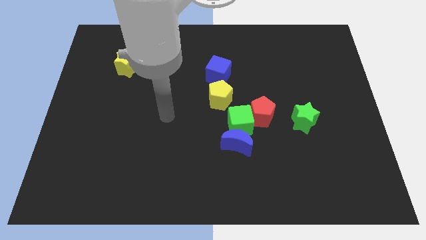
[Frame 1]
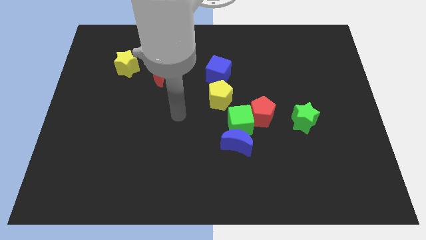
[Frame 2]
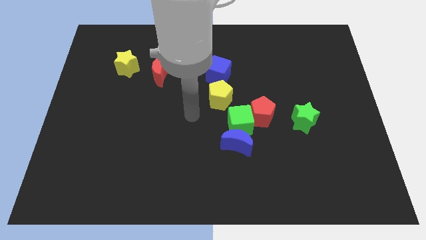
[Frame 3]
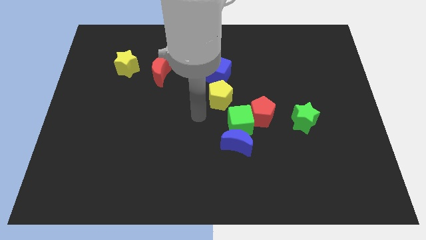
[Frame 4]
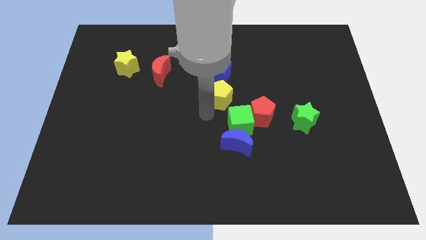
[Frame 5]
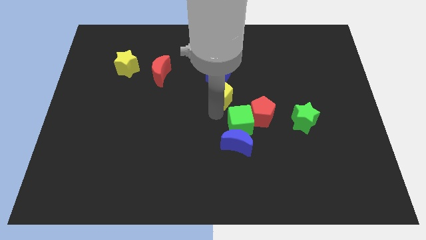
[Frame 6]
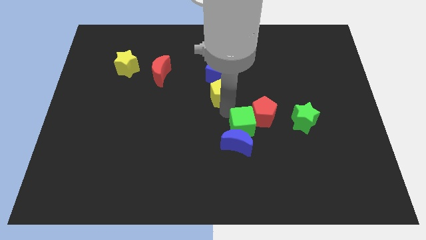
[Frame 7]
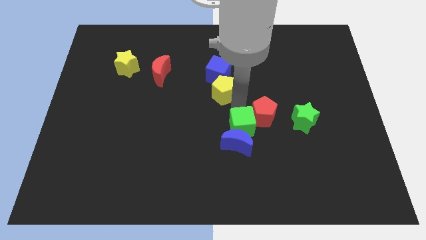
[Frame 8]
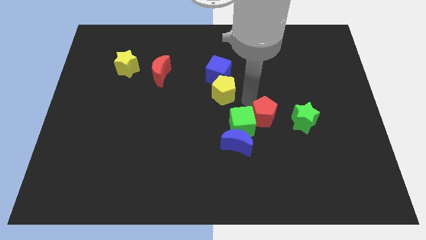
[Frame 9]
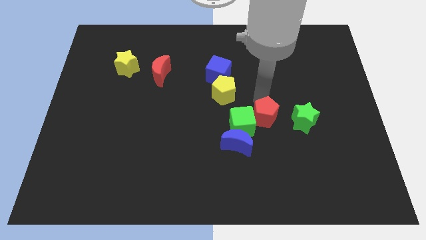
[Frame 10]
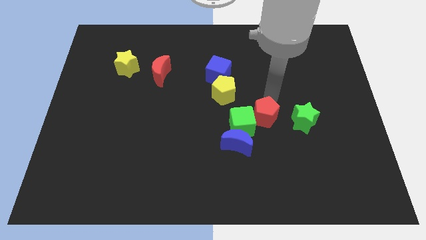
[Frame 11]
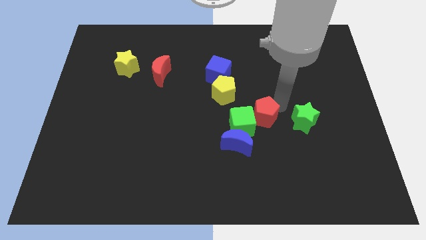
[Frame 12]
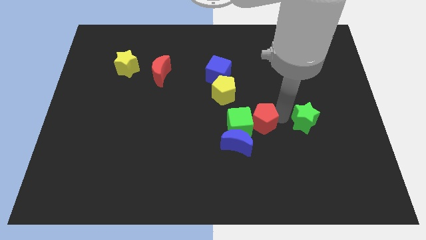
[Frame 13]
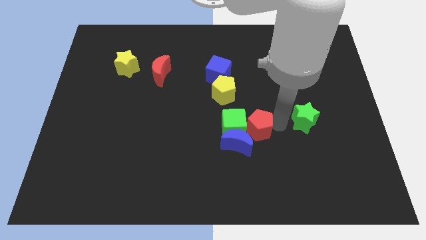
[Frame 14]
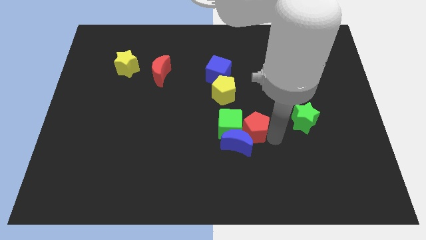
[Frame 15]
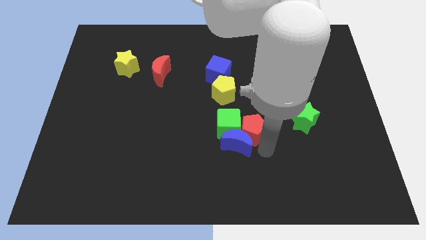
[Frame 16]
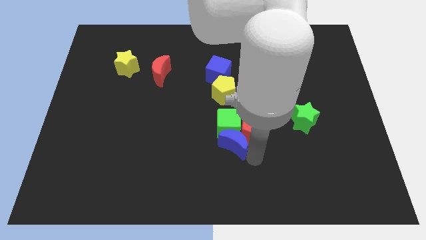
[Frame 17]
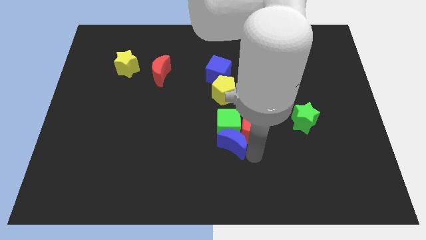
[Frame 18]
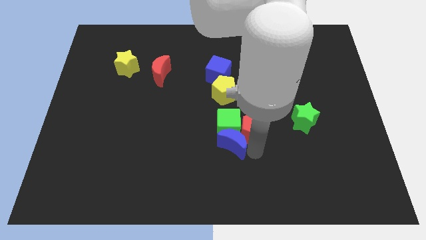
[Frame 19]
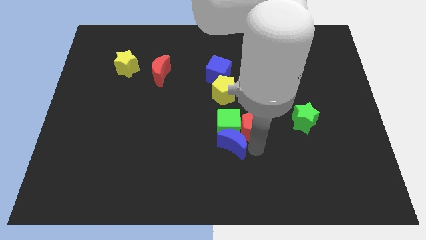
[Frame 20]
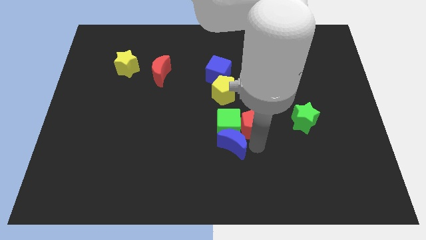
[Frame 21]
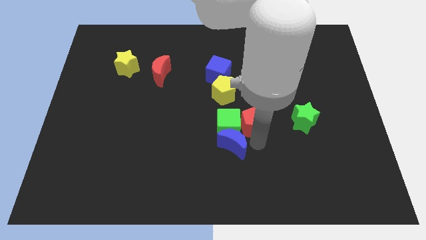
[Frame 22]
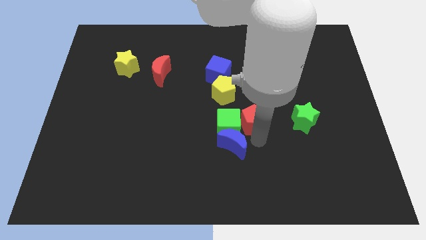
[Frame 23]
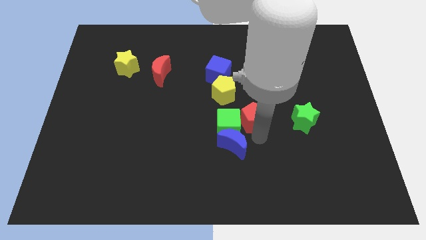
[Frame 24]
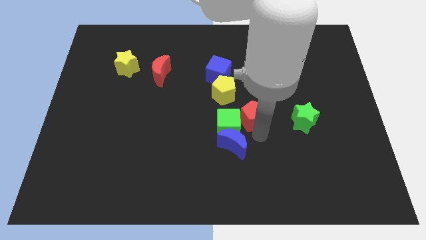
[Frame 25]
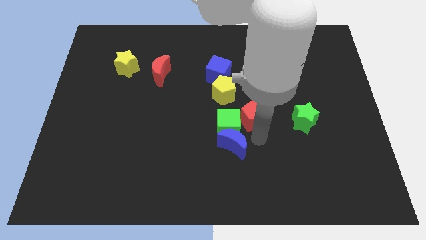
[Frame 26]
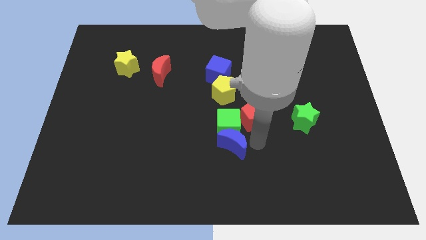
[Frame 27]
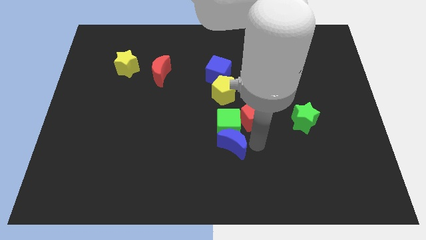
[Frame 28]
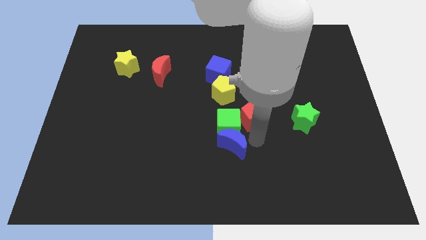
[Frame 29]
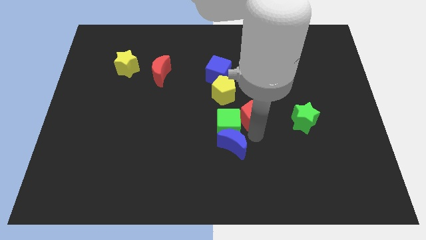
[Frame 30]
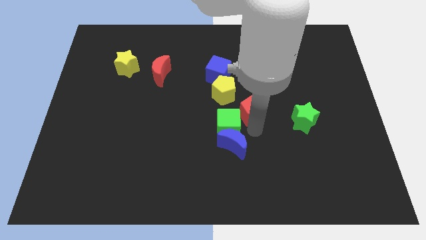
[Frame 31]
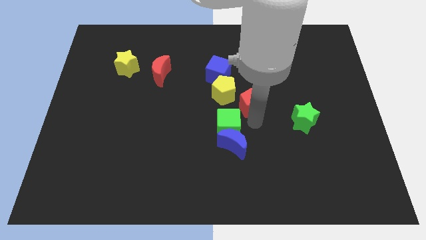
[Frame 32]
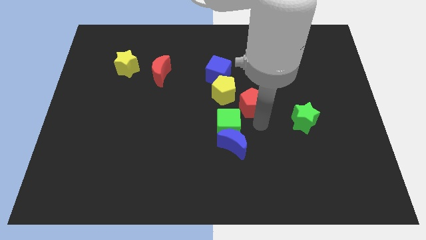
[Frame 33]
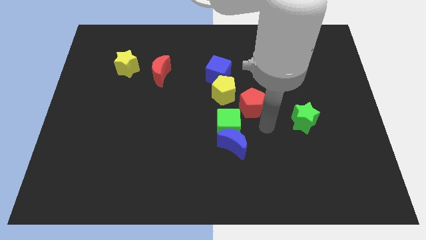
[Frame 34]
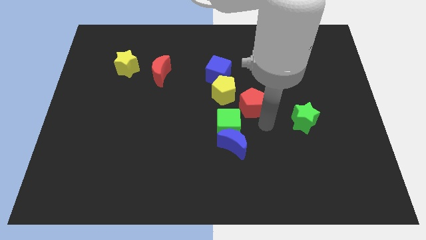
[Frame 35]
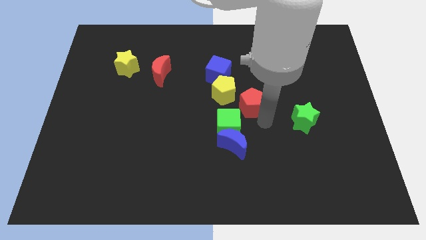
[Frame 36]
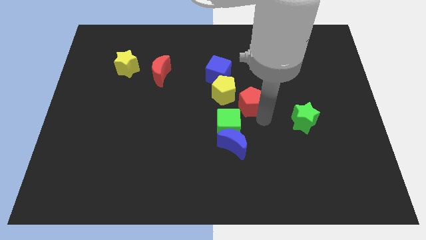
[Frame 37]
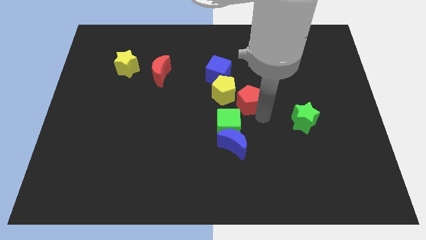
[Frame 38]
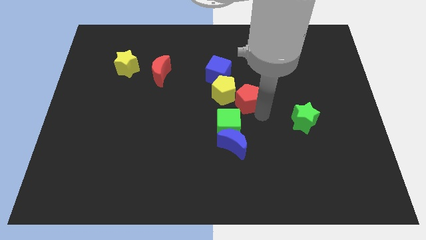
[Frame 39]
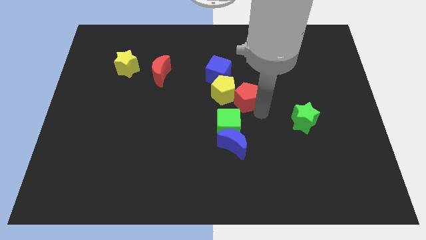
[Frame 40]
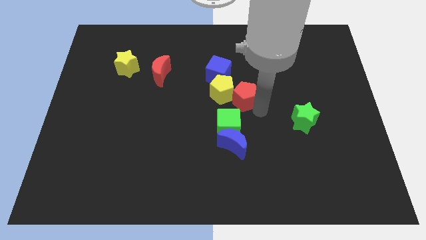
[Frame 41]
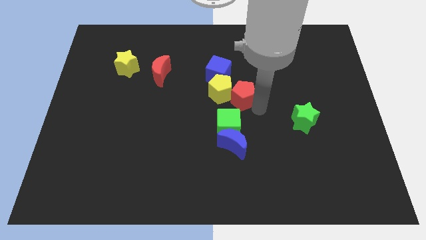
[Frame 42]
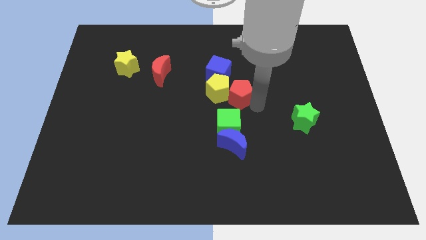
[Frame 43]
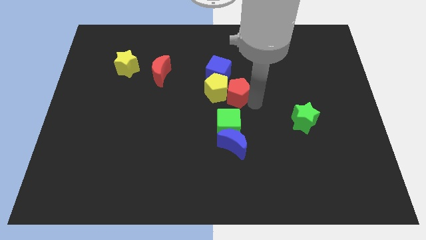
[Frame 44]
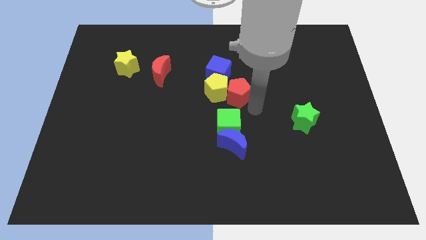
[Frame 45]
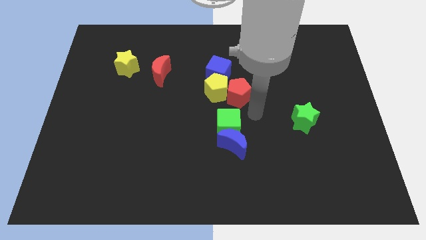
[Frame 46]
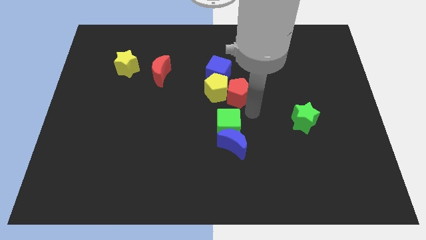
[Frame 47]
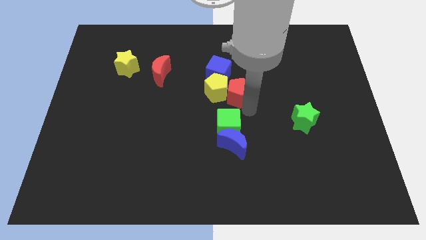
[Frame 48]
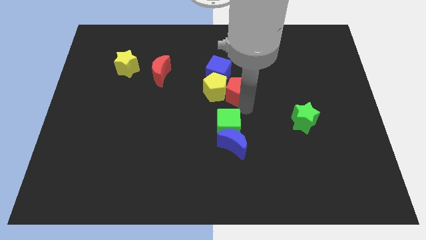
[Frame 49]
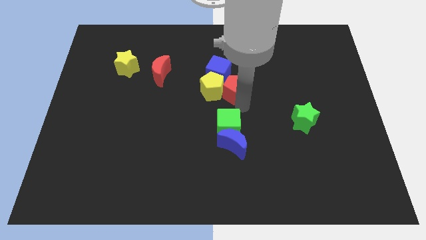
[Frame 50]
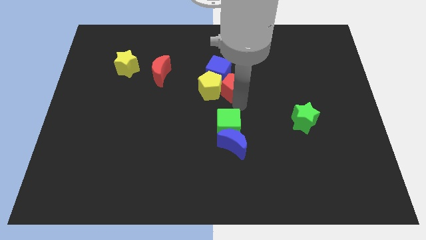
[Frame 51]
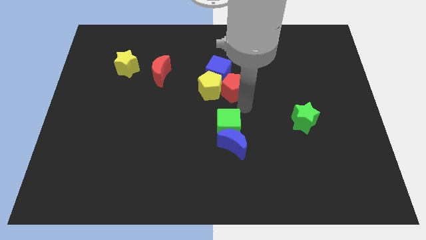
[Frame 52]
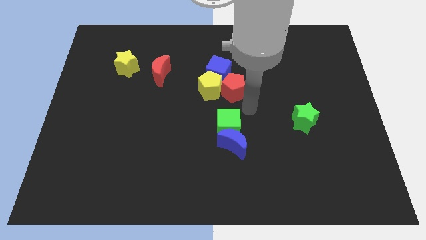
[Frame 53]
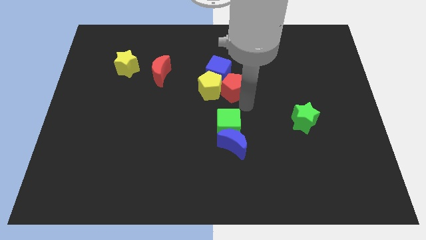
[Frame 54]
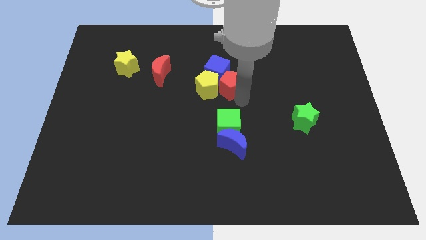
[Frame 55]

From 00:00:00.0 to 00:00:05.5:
move the red pentagon next to the blue cube

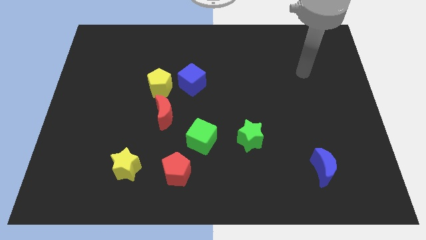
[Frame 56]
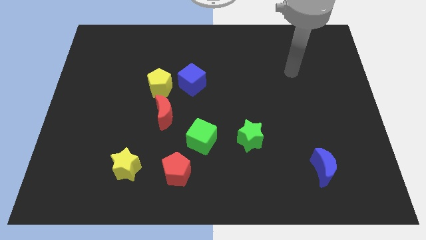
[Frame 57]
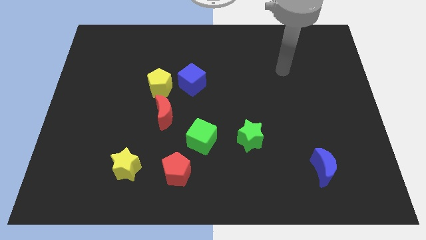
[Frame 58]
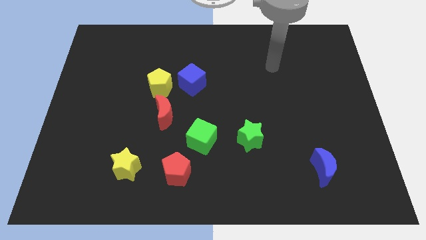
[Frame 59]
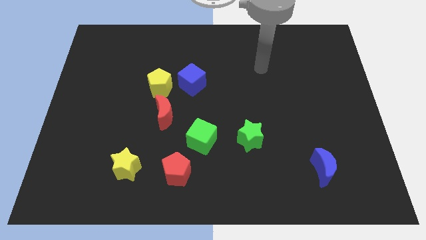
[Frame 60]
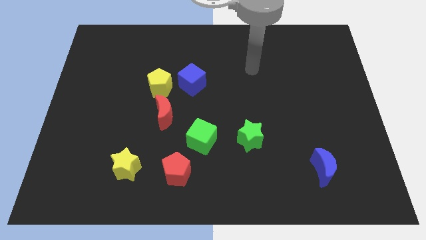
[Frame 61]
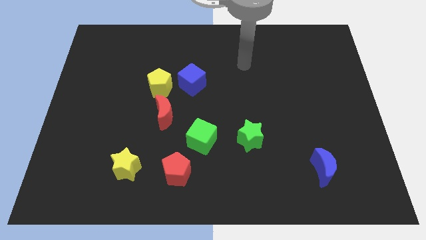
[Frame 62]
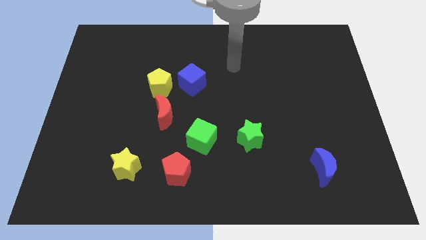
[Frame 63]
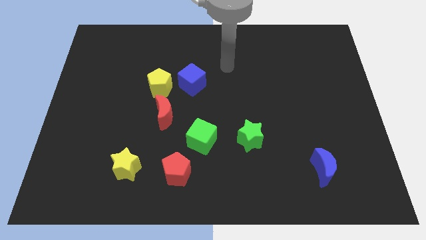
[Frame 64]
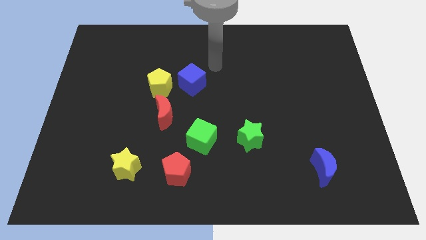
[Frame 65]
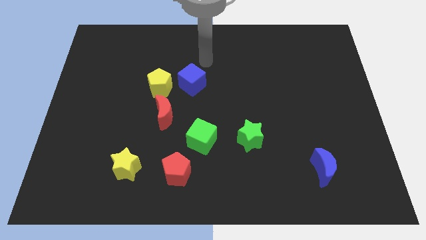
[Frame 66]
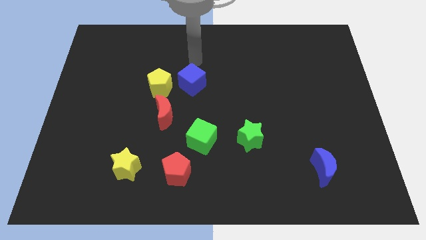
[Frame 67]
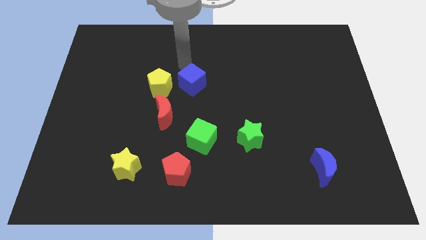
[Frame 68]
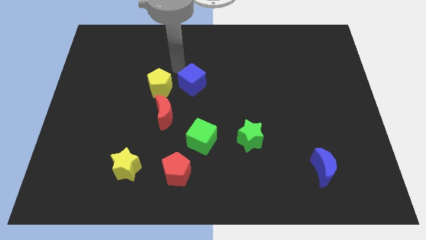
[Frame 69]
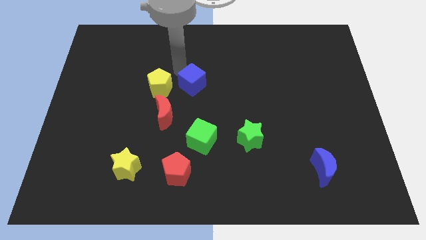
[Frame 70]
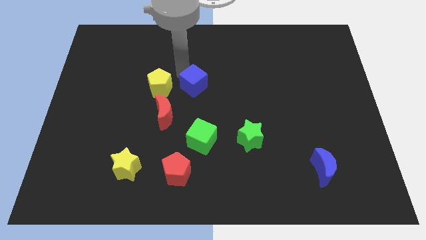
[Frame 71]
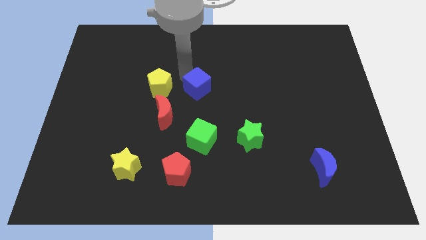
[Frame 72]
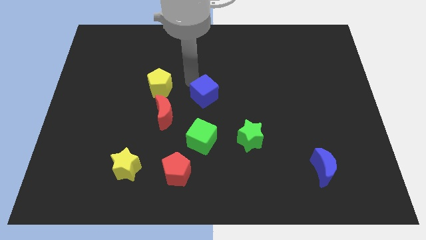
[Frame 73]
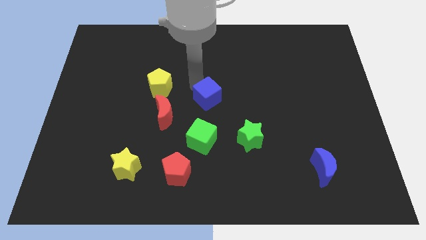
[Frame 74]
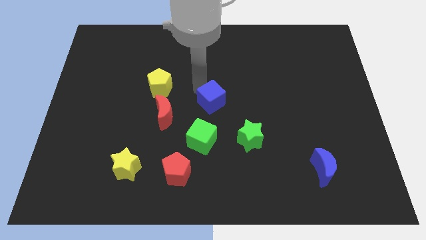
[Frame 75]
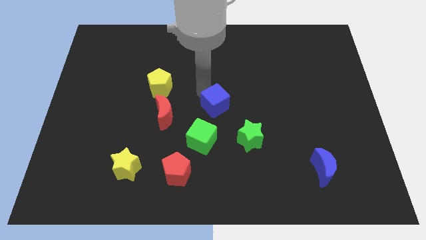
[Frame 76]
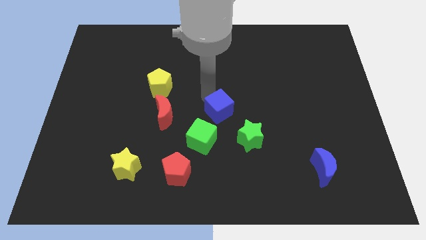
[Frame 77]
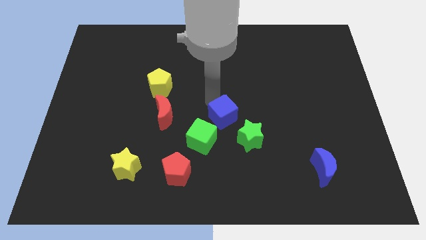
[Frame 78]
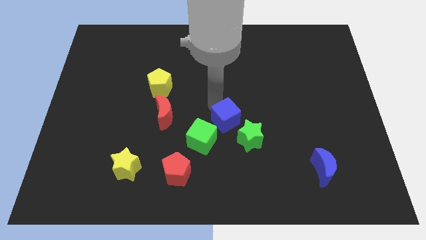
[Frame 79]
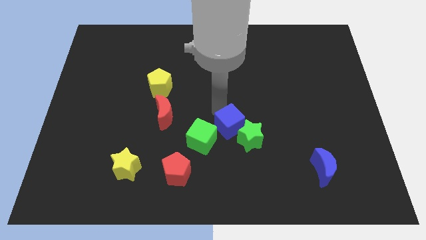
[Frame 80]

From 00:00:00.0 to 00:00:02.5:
put the blue cube to the green star
